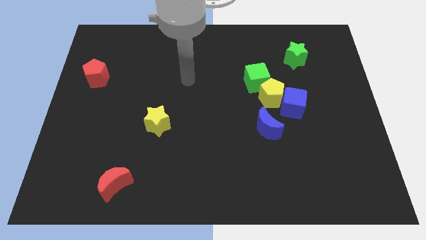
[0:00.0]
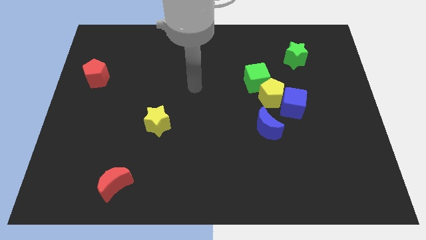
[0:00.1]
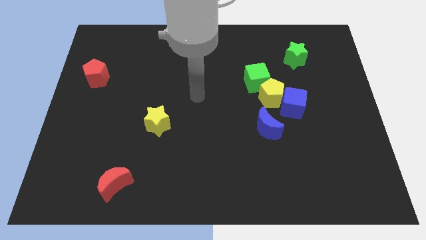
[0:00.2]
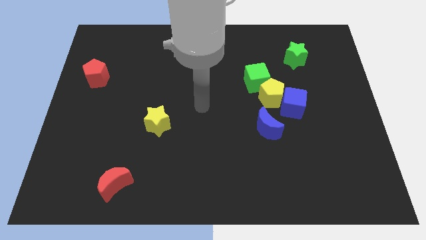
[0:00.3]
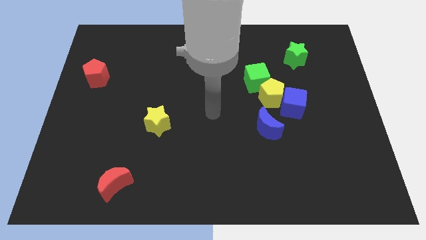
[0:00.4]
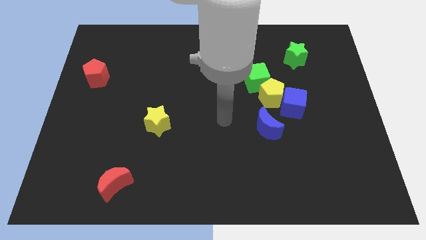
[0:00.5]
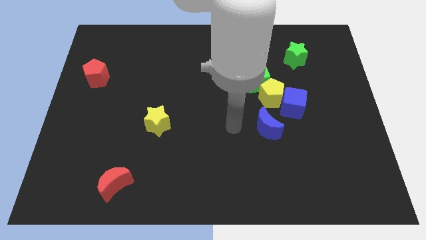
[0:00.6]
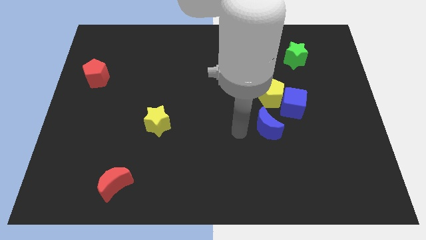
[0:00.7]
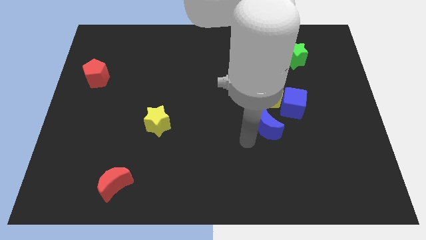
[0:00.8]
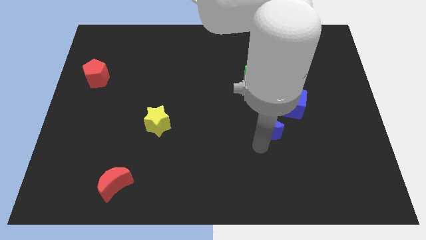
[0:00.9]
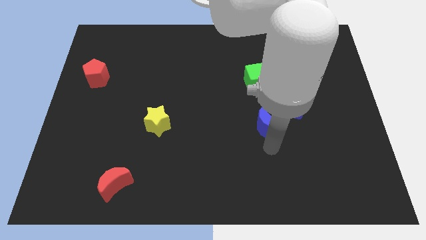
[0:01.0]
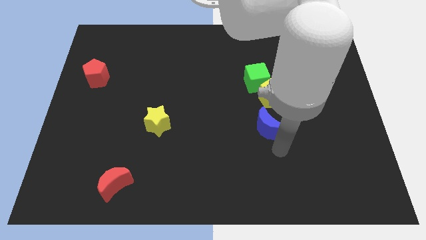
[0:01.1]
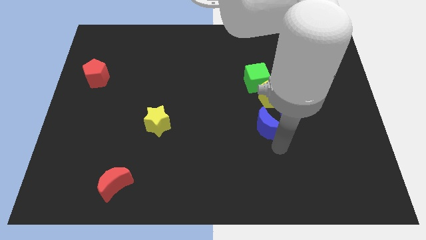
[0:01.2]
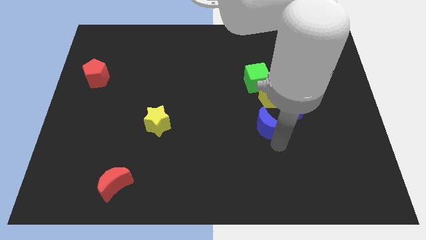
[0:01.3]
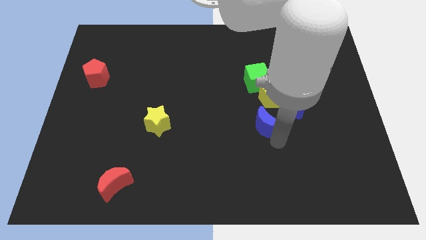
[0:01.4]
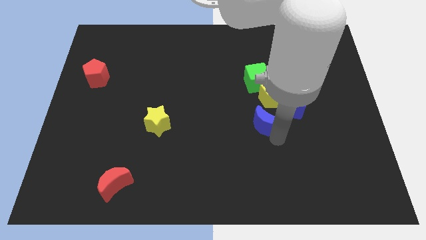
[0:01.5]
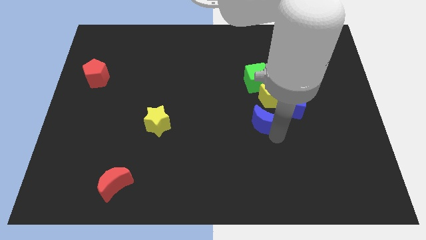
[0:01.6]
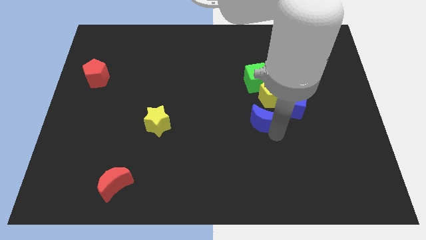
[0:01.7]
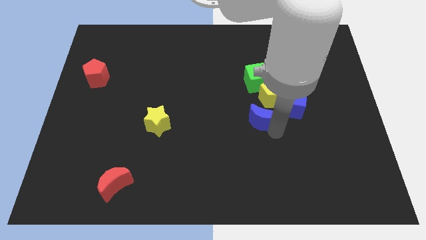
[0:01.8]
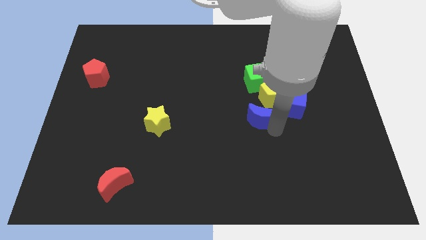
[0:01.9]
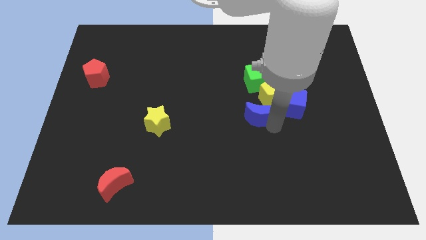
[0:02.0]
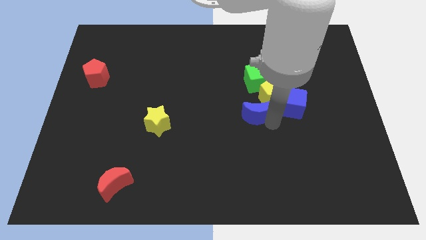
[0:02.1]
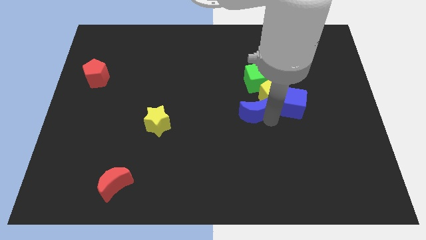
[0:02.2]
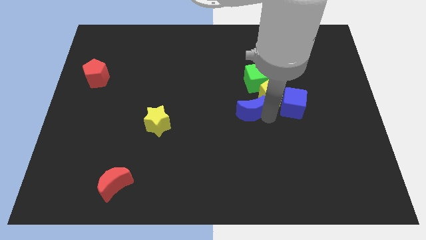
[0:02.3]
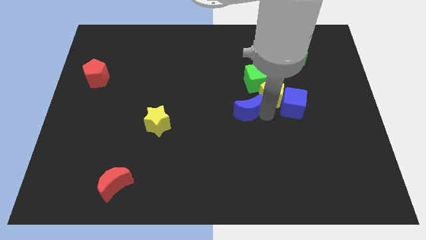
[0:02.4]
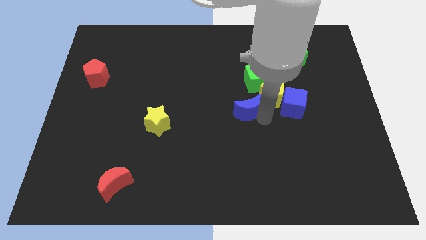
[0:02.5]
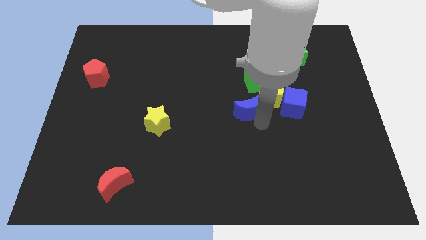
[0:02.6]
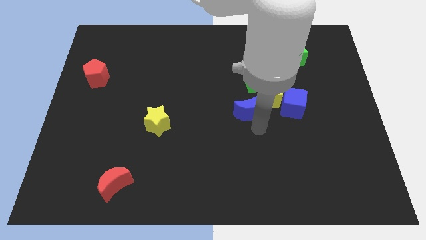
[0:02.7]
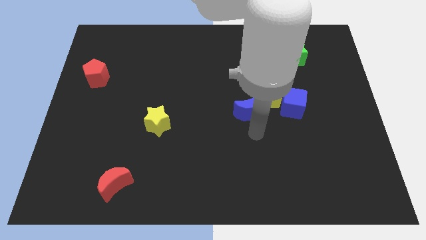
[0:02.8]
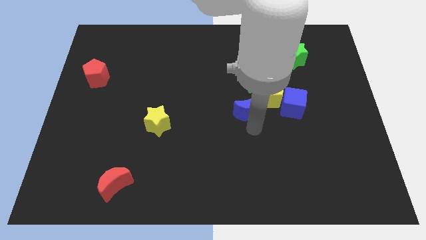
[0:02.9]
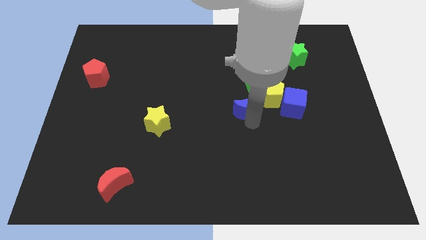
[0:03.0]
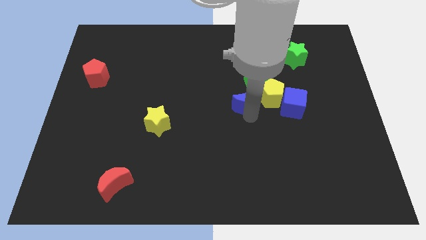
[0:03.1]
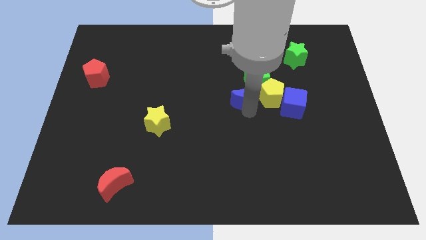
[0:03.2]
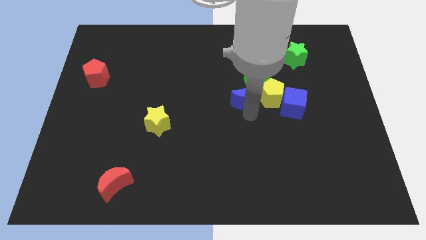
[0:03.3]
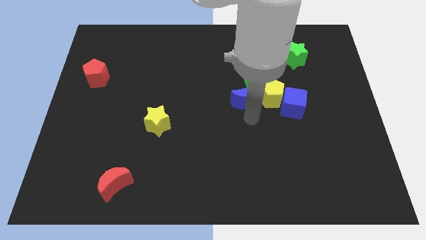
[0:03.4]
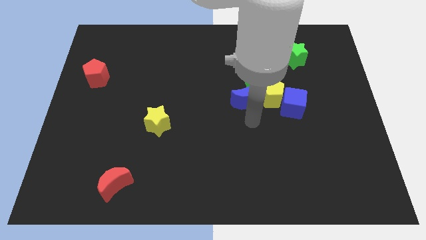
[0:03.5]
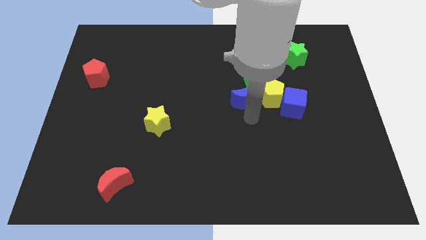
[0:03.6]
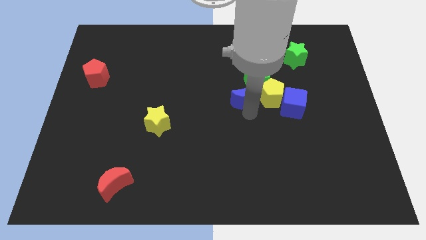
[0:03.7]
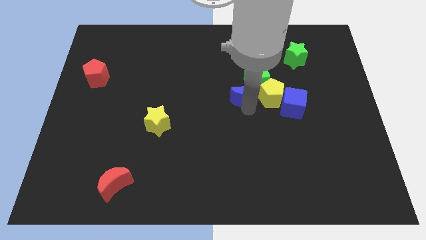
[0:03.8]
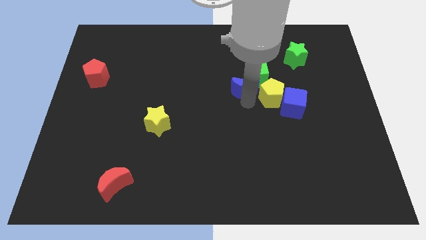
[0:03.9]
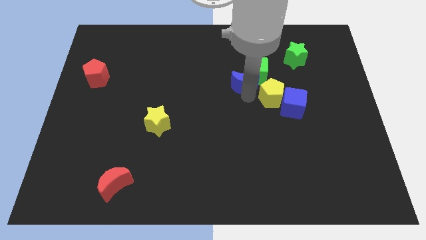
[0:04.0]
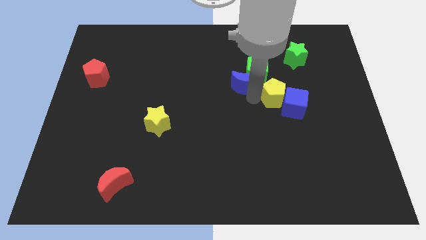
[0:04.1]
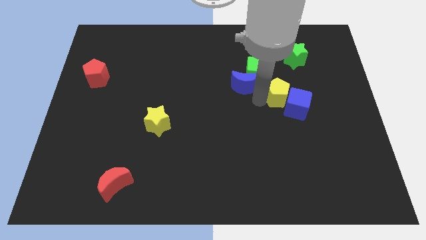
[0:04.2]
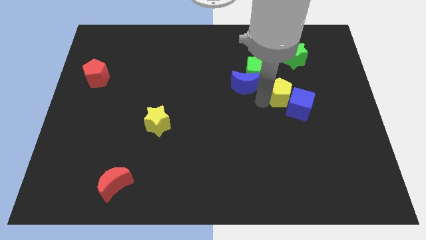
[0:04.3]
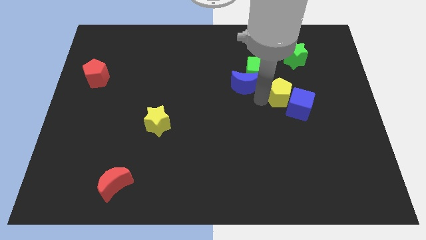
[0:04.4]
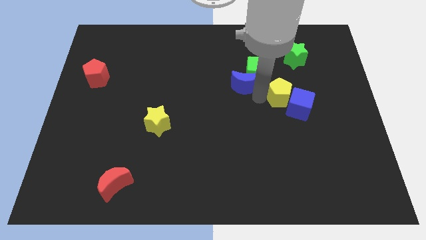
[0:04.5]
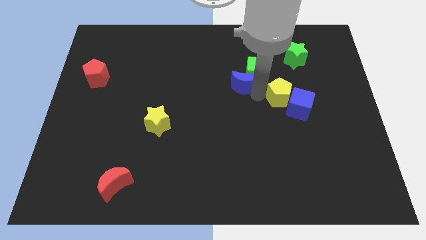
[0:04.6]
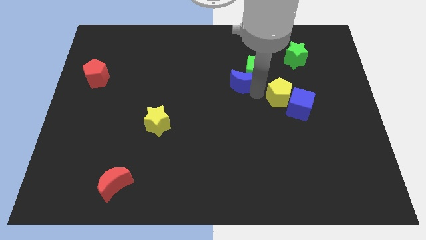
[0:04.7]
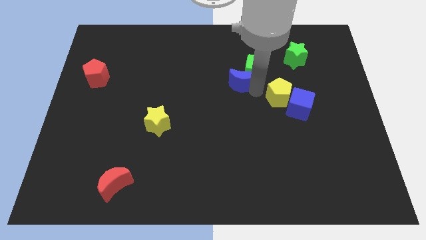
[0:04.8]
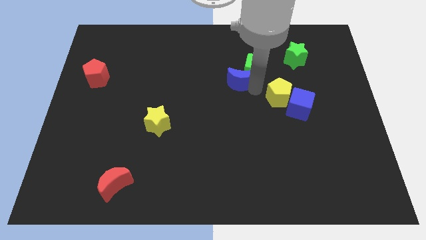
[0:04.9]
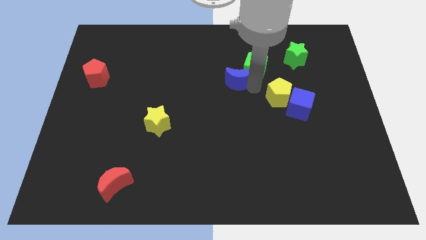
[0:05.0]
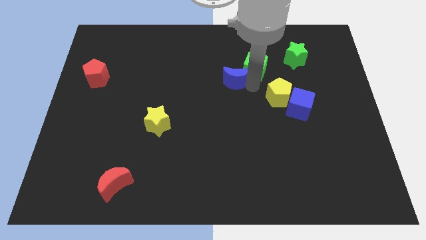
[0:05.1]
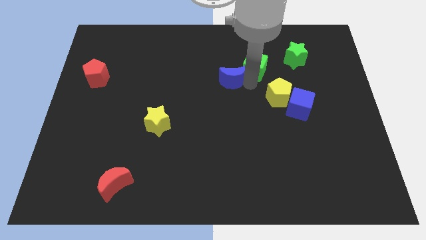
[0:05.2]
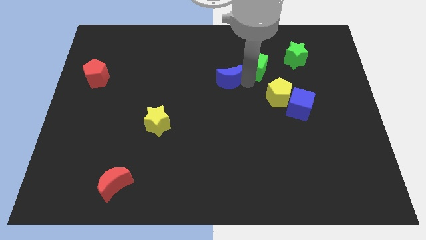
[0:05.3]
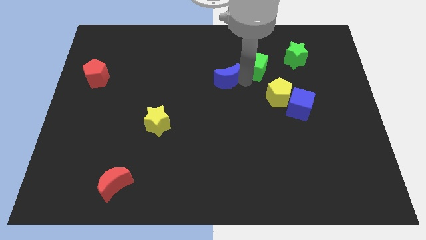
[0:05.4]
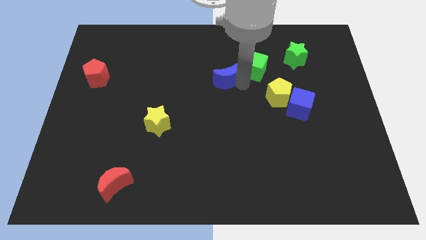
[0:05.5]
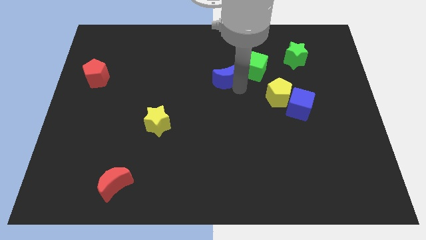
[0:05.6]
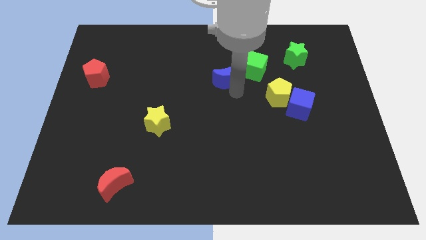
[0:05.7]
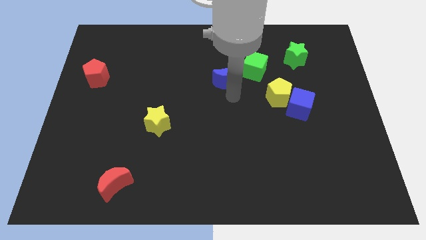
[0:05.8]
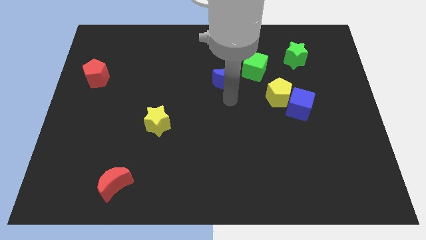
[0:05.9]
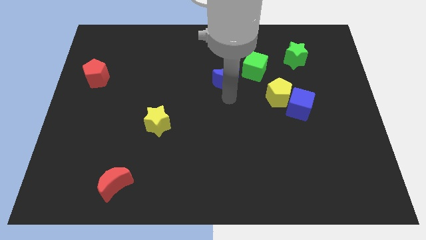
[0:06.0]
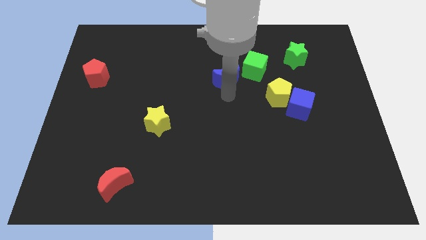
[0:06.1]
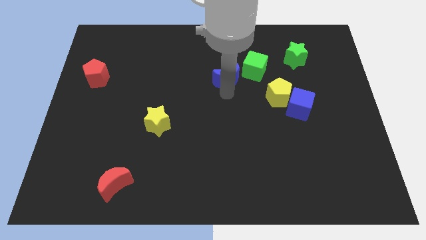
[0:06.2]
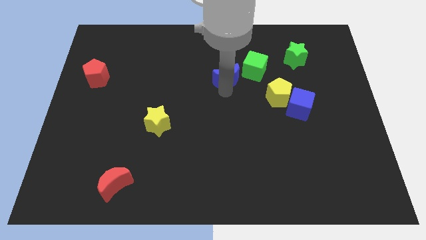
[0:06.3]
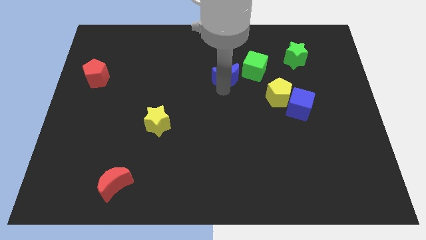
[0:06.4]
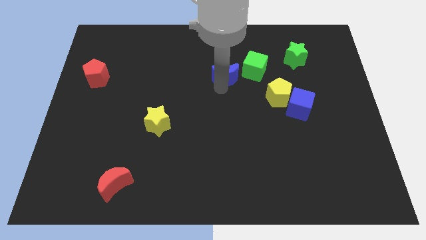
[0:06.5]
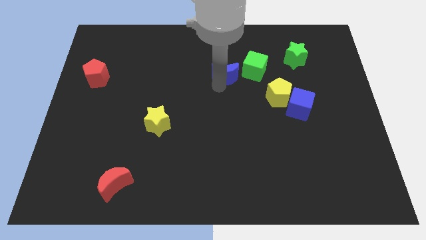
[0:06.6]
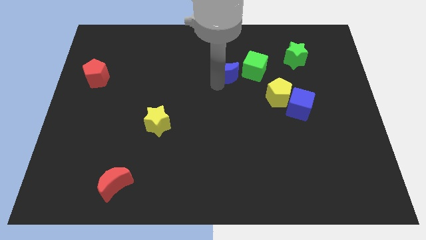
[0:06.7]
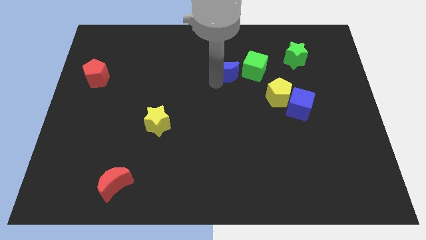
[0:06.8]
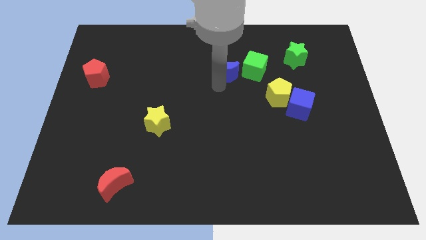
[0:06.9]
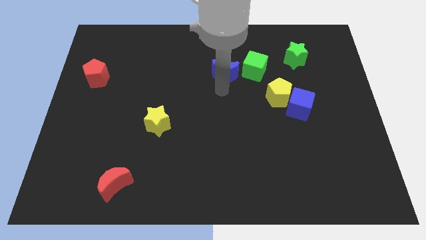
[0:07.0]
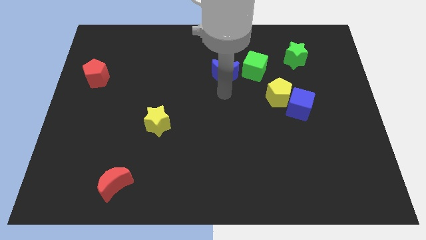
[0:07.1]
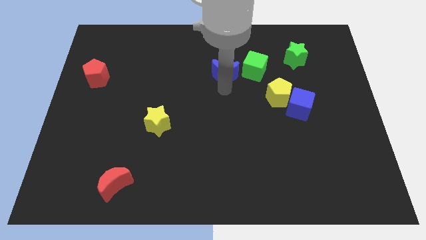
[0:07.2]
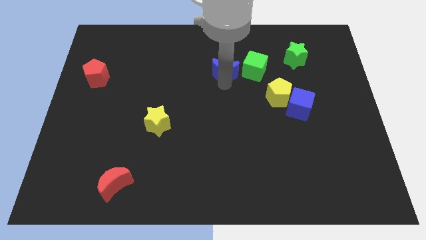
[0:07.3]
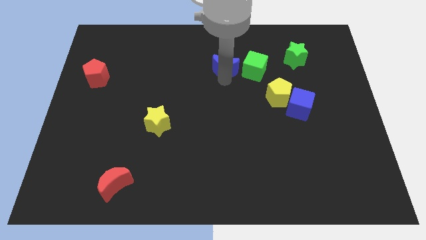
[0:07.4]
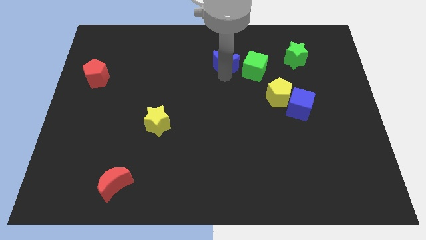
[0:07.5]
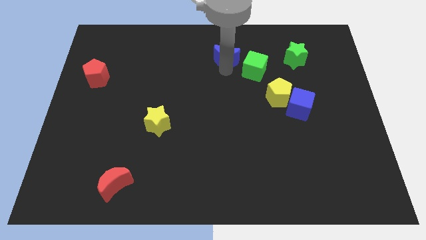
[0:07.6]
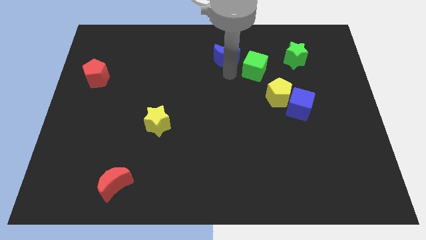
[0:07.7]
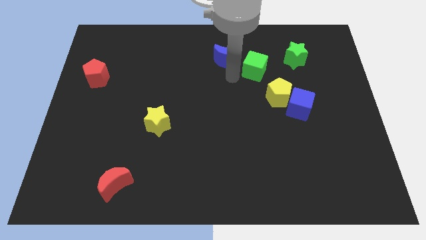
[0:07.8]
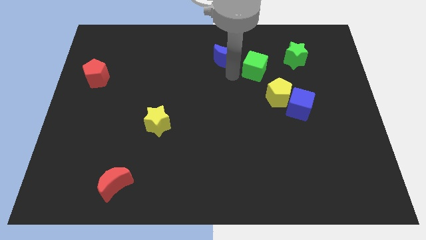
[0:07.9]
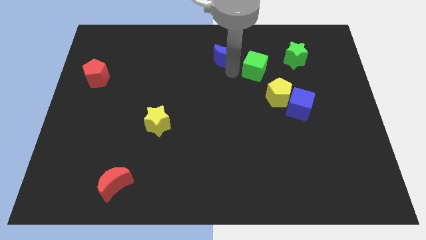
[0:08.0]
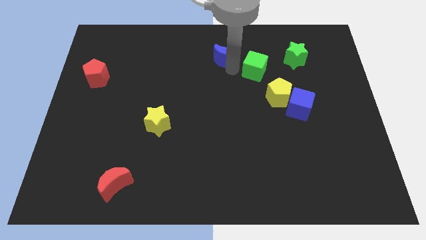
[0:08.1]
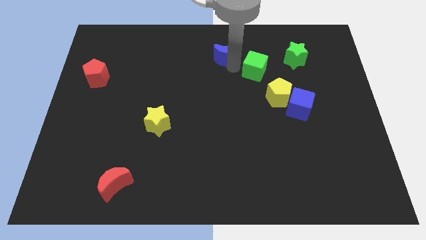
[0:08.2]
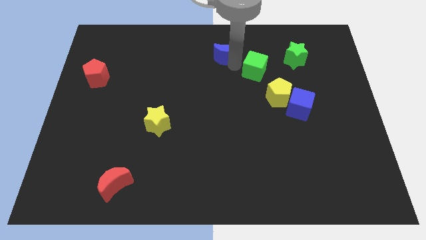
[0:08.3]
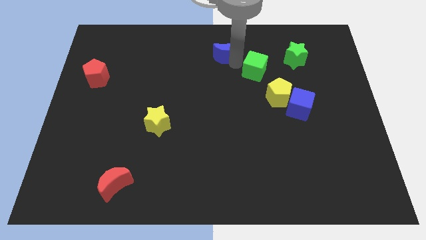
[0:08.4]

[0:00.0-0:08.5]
move the blue moon to the top side
